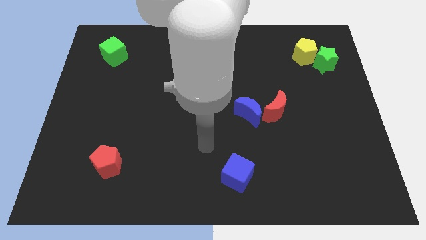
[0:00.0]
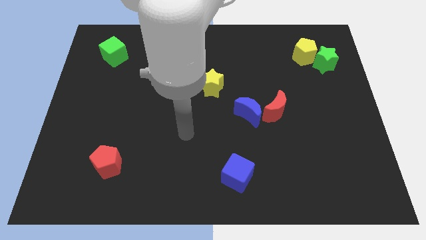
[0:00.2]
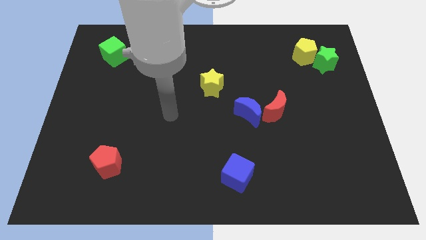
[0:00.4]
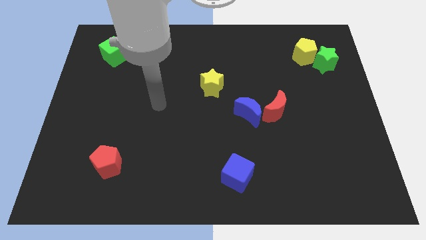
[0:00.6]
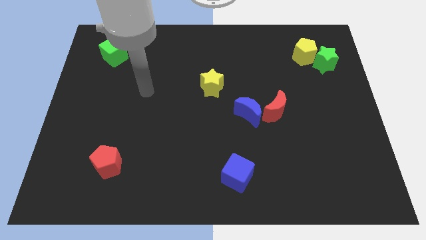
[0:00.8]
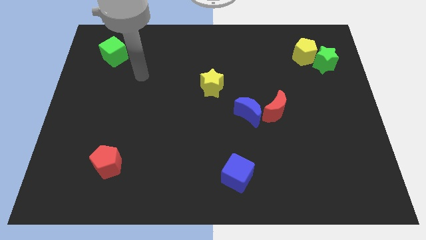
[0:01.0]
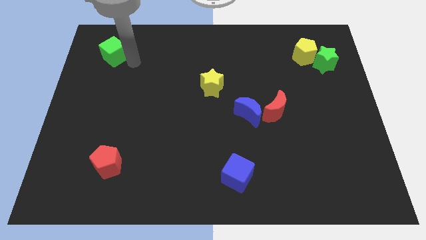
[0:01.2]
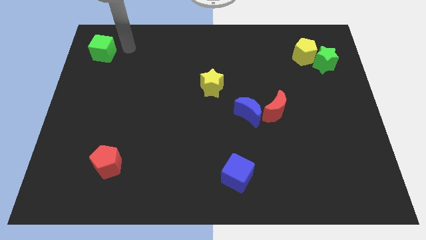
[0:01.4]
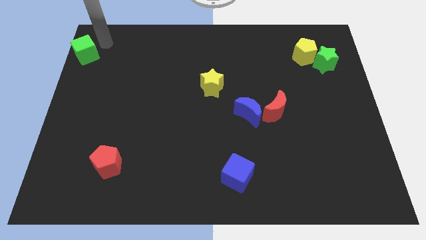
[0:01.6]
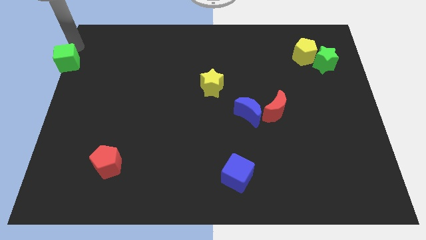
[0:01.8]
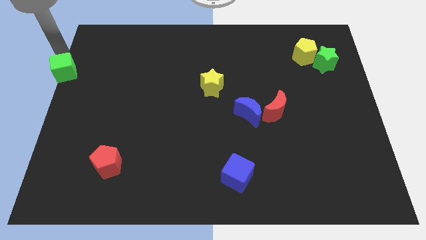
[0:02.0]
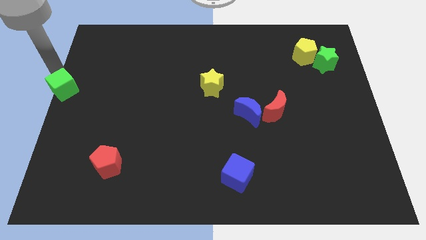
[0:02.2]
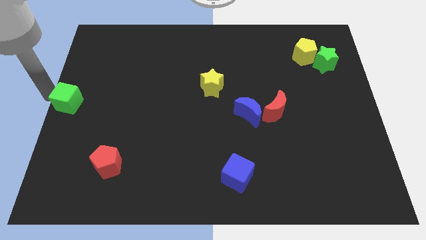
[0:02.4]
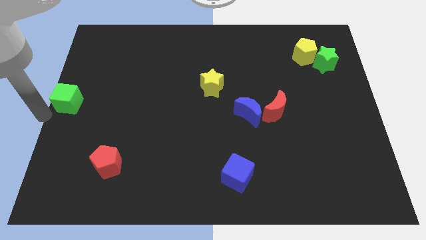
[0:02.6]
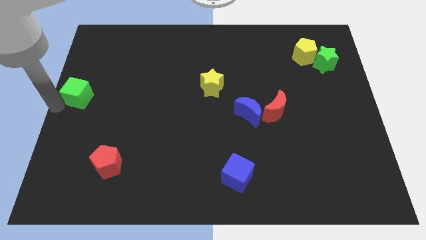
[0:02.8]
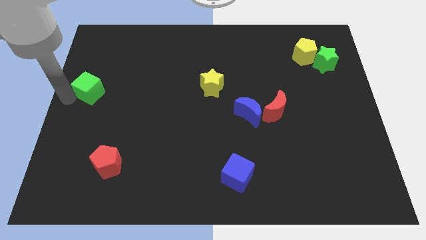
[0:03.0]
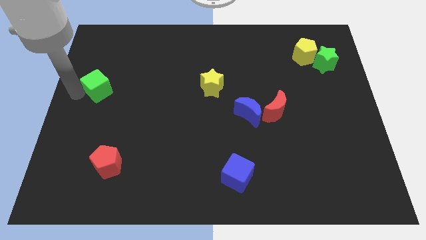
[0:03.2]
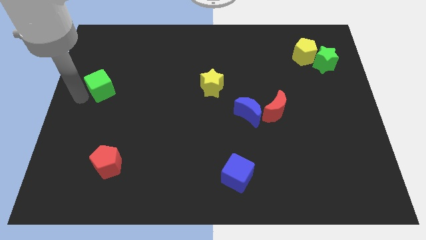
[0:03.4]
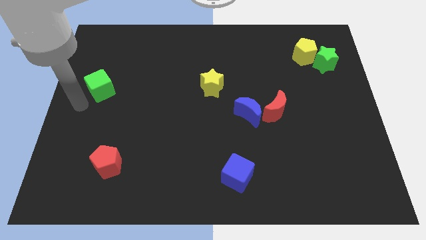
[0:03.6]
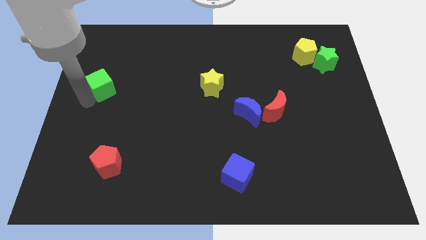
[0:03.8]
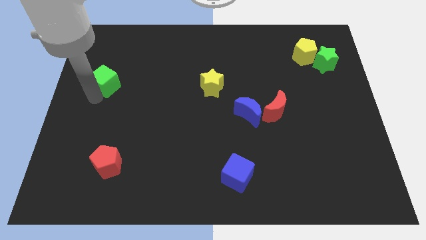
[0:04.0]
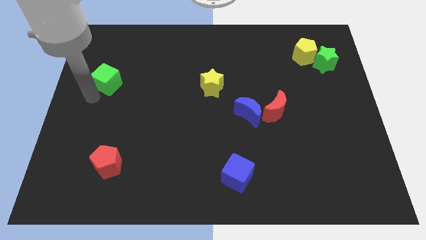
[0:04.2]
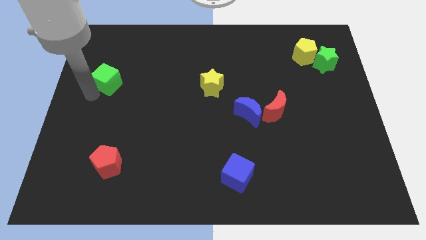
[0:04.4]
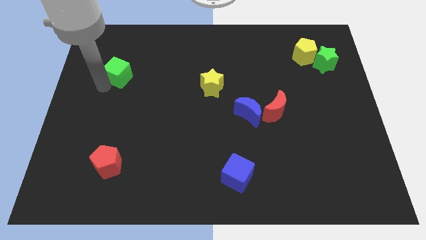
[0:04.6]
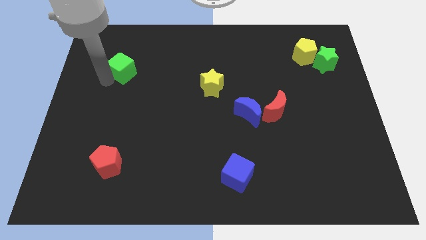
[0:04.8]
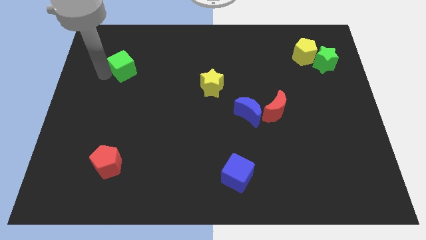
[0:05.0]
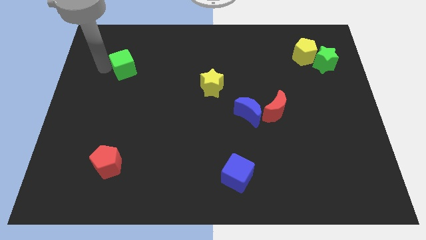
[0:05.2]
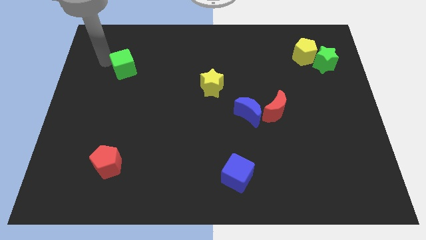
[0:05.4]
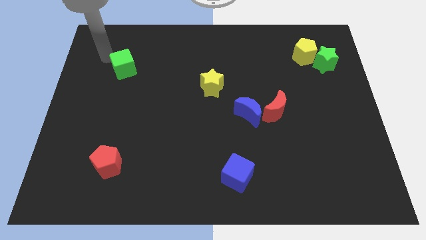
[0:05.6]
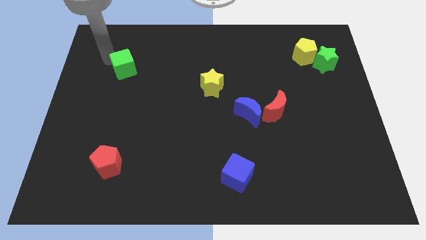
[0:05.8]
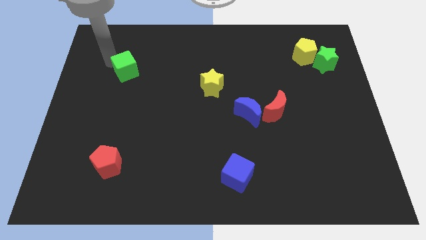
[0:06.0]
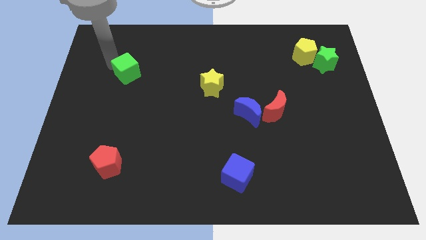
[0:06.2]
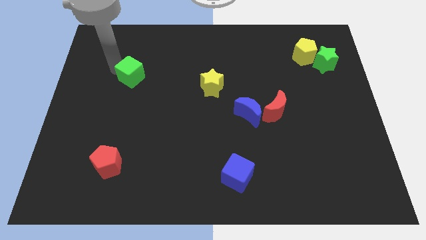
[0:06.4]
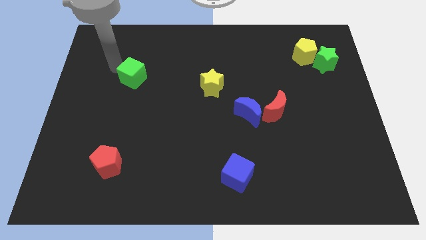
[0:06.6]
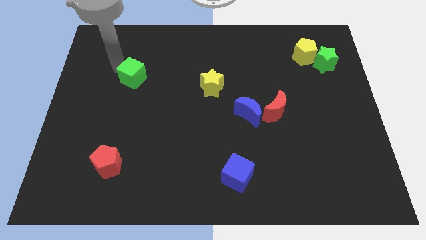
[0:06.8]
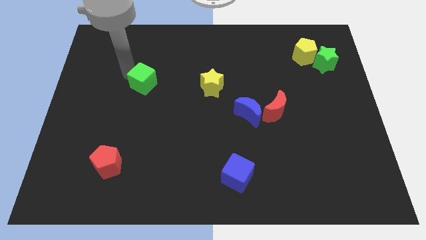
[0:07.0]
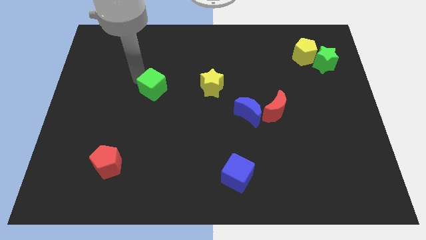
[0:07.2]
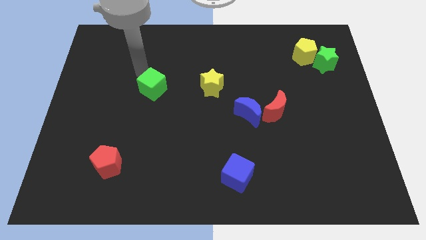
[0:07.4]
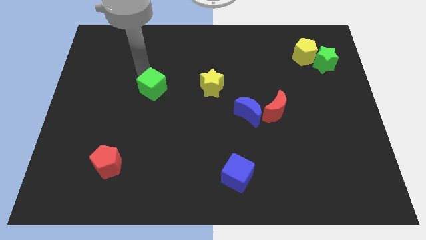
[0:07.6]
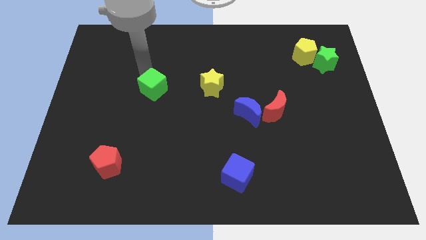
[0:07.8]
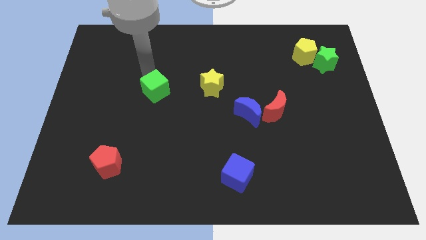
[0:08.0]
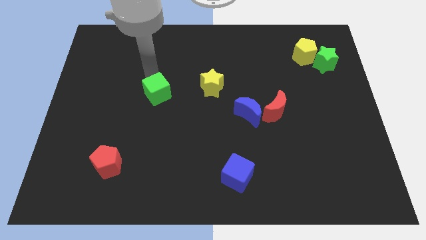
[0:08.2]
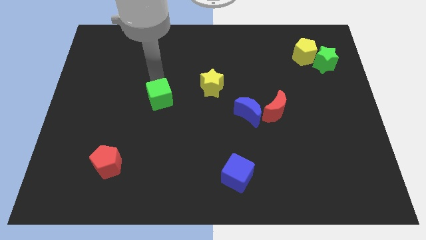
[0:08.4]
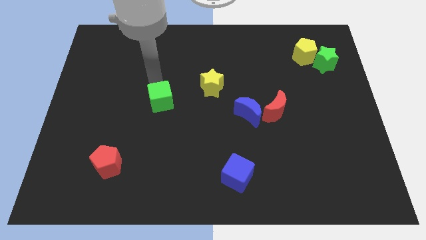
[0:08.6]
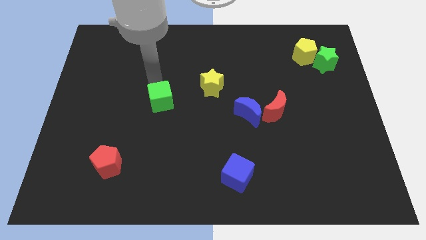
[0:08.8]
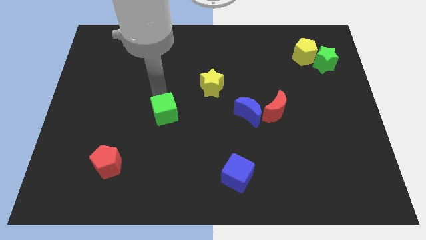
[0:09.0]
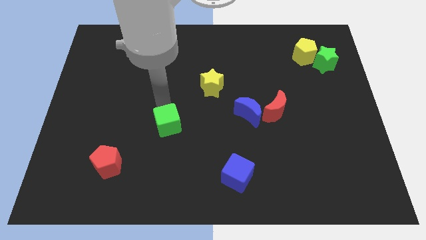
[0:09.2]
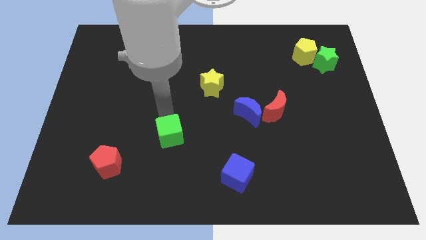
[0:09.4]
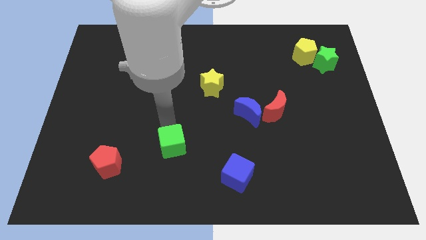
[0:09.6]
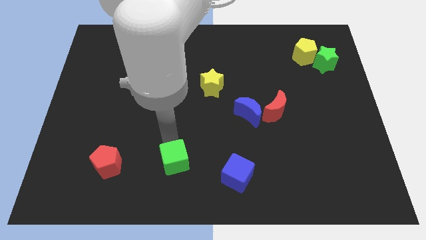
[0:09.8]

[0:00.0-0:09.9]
move the green cube left of the blue cube

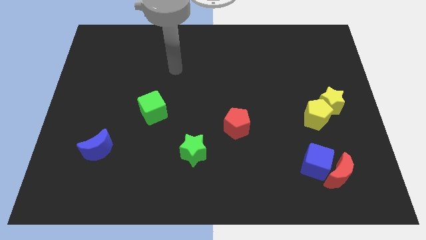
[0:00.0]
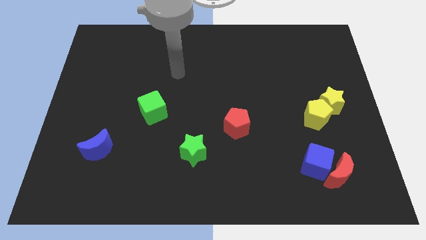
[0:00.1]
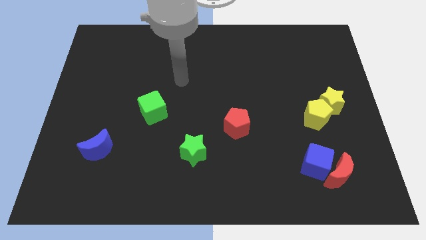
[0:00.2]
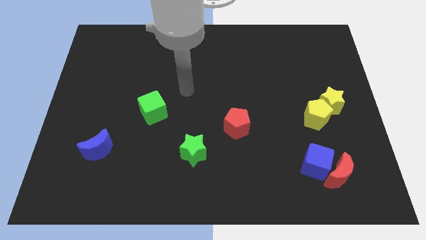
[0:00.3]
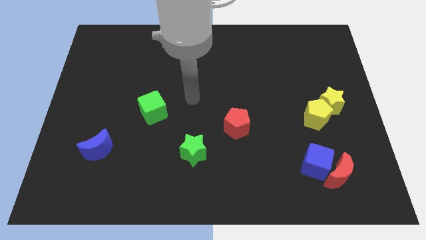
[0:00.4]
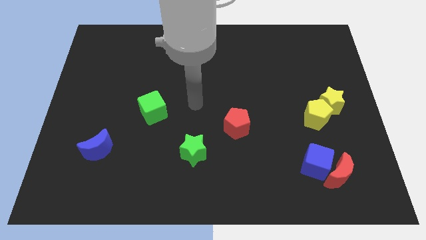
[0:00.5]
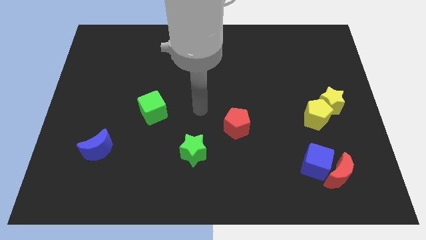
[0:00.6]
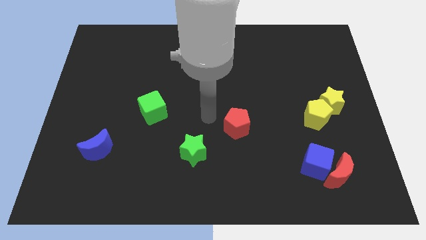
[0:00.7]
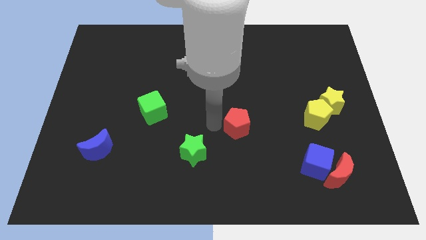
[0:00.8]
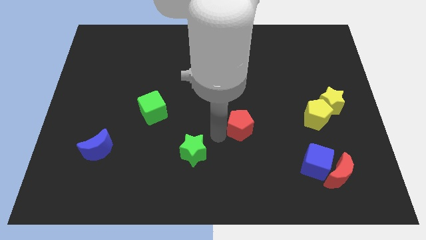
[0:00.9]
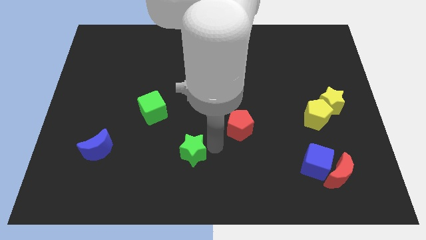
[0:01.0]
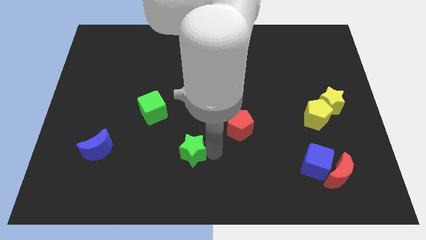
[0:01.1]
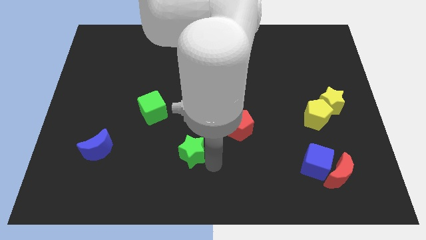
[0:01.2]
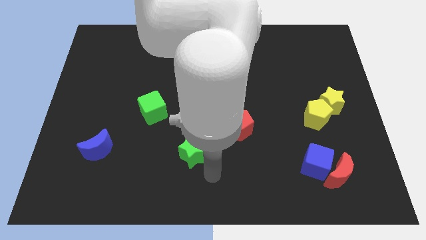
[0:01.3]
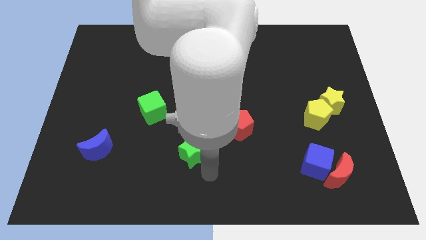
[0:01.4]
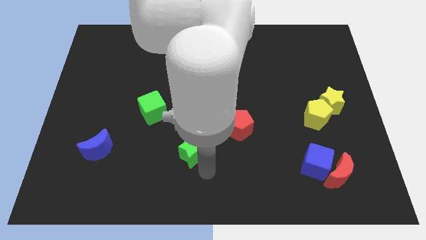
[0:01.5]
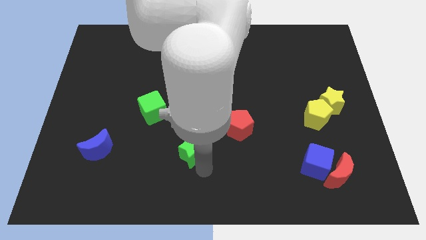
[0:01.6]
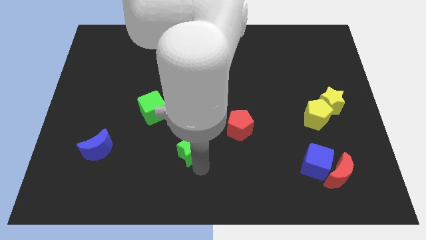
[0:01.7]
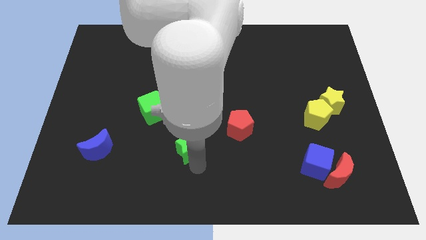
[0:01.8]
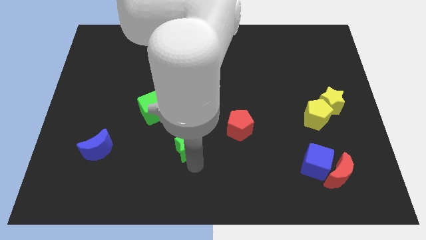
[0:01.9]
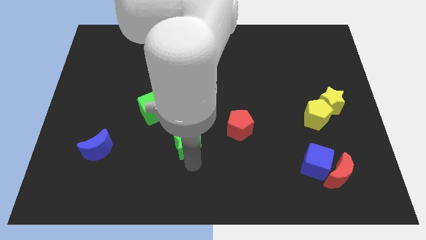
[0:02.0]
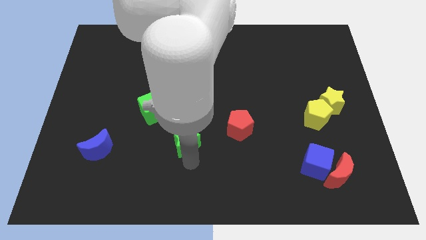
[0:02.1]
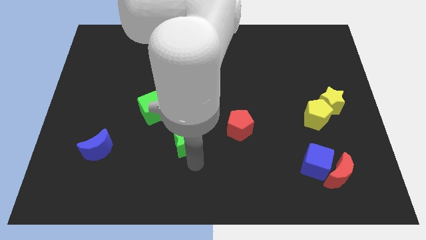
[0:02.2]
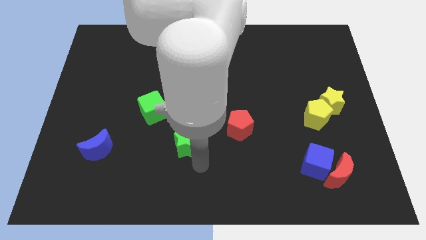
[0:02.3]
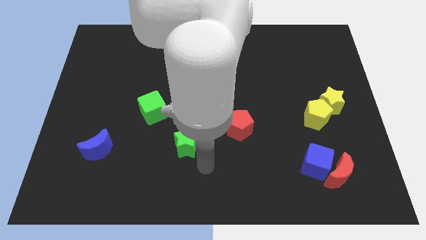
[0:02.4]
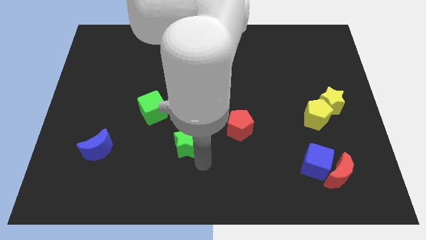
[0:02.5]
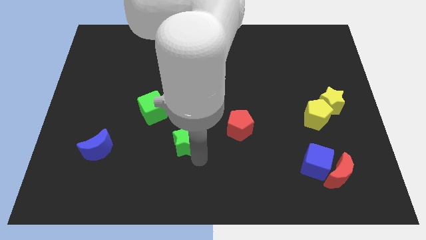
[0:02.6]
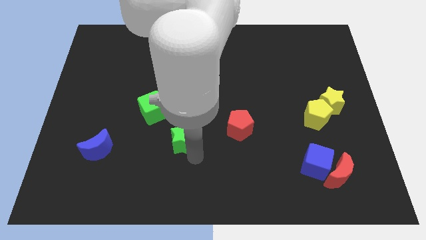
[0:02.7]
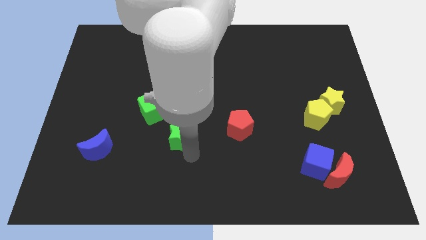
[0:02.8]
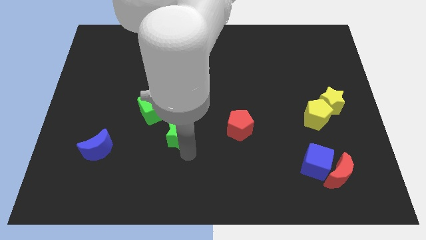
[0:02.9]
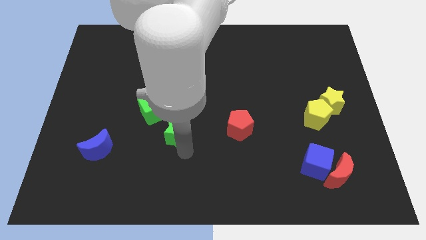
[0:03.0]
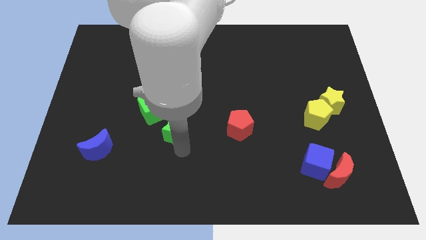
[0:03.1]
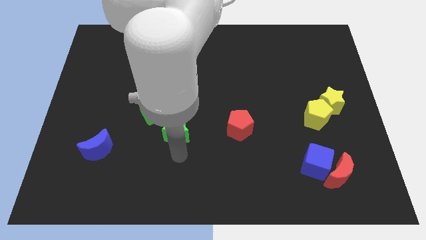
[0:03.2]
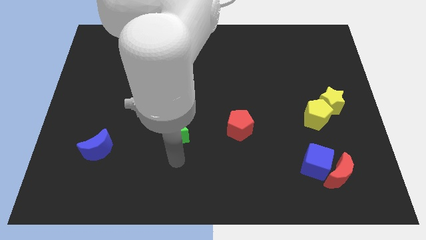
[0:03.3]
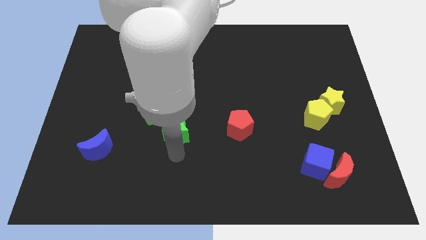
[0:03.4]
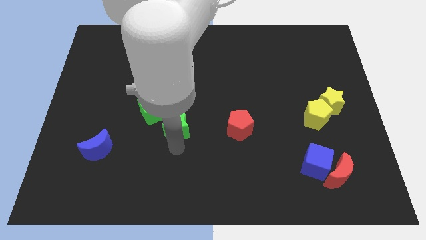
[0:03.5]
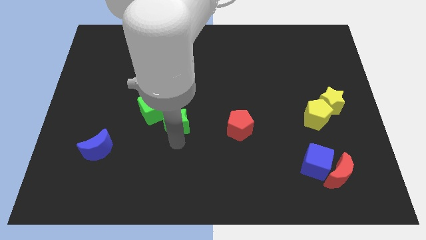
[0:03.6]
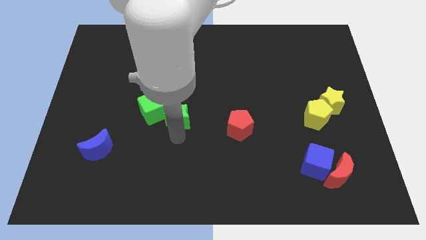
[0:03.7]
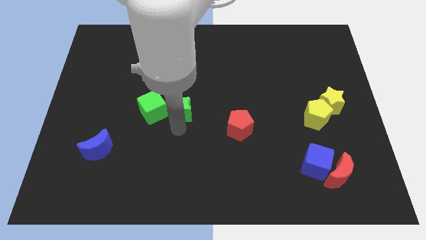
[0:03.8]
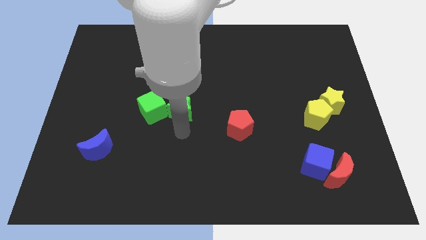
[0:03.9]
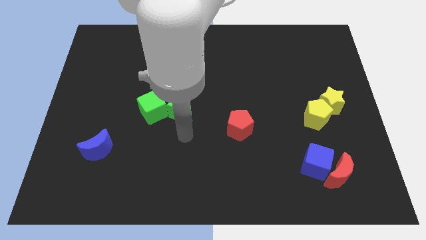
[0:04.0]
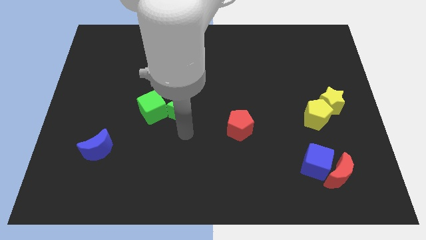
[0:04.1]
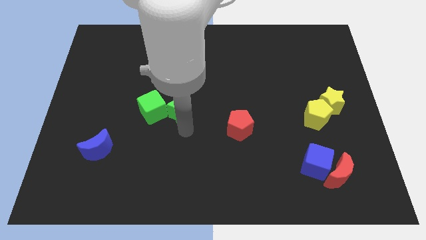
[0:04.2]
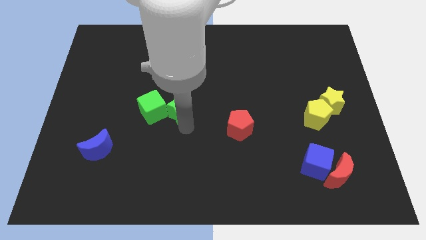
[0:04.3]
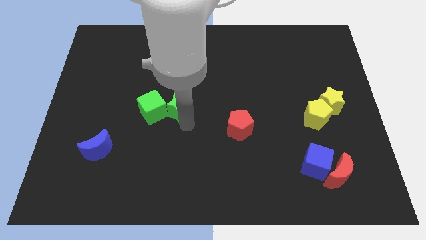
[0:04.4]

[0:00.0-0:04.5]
put the green star diagonally up and to the right of the green cube
